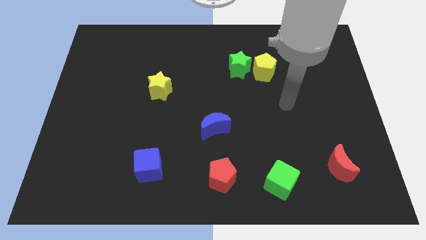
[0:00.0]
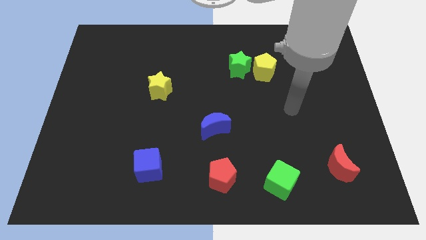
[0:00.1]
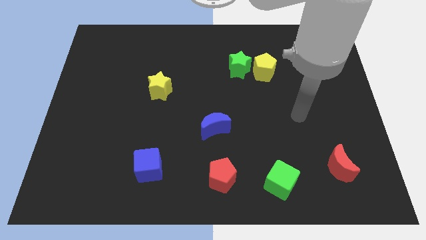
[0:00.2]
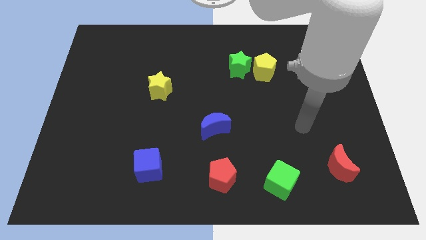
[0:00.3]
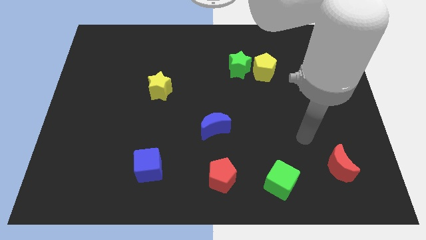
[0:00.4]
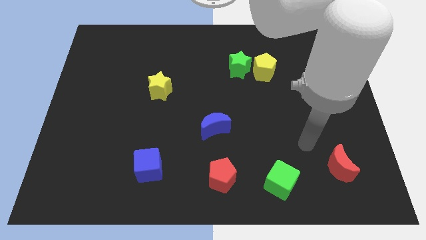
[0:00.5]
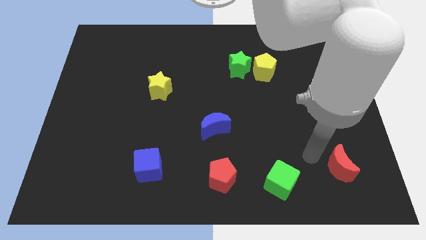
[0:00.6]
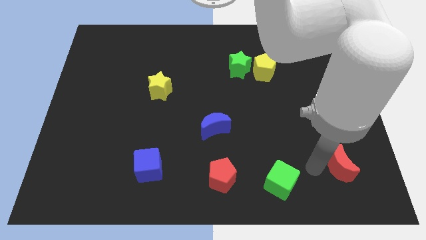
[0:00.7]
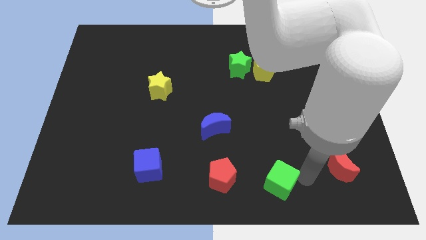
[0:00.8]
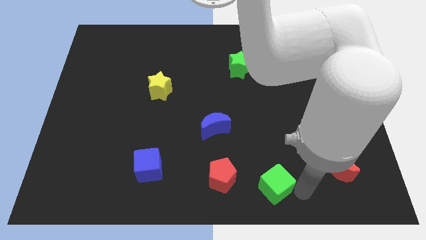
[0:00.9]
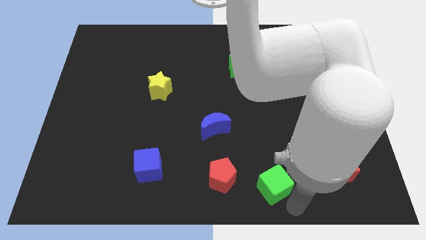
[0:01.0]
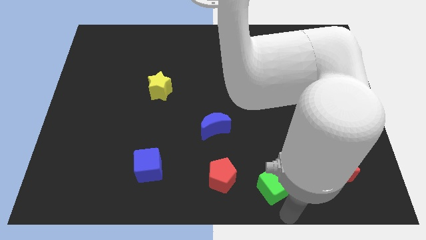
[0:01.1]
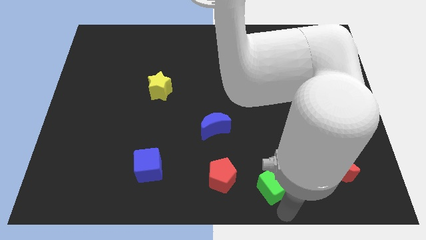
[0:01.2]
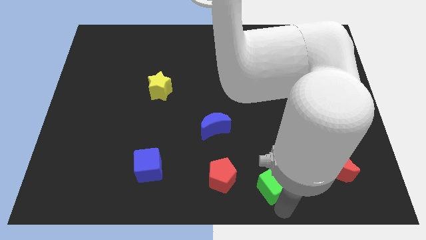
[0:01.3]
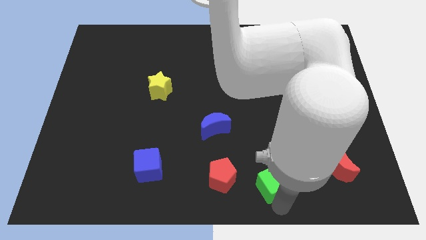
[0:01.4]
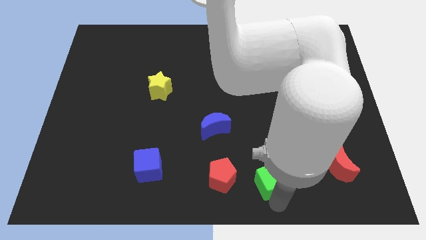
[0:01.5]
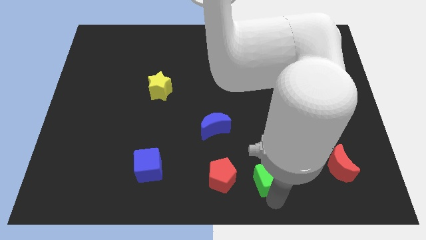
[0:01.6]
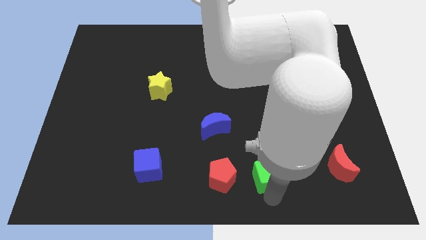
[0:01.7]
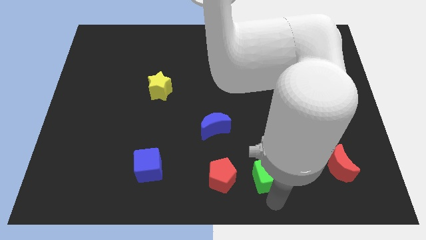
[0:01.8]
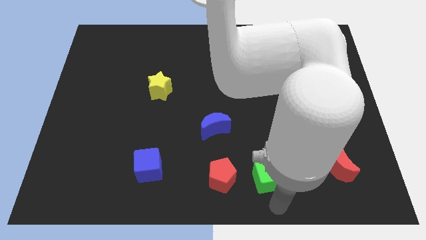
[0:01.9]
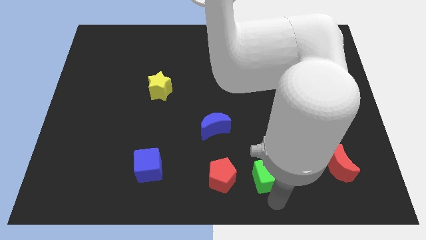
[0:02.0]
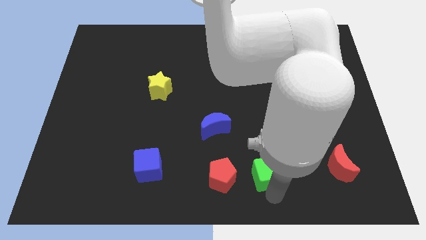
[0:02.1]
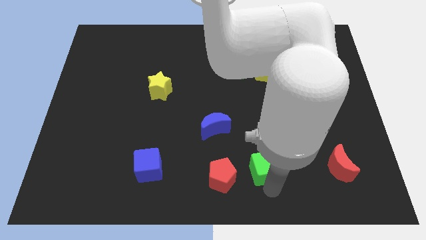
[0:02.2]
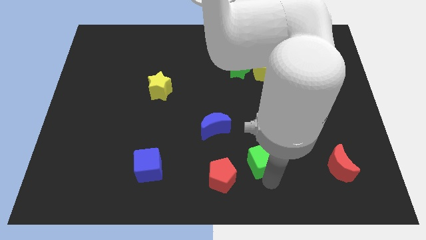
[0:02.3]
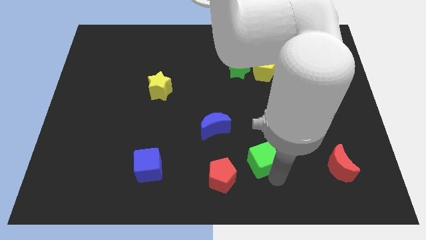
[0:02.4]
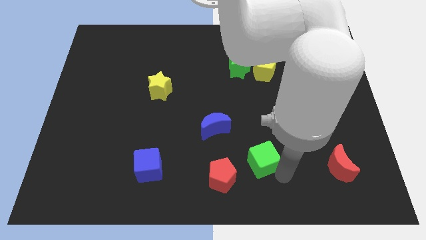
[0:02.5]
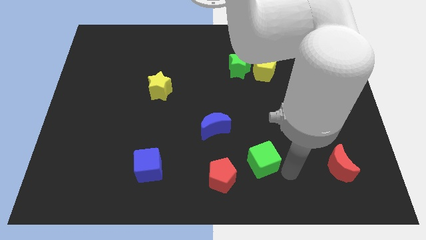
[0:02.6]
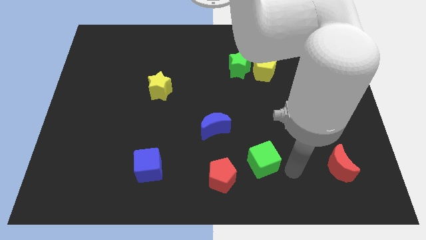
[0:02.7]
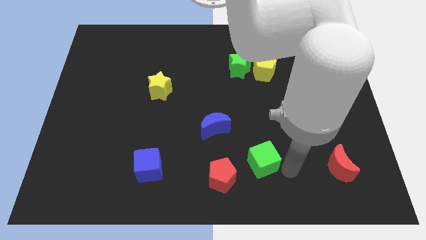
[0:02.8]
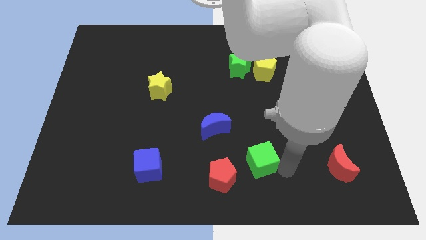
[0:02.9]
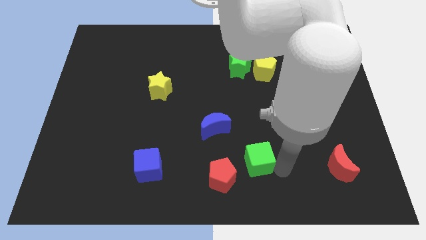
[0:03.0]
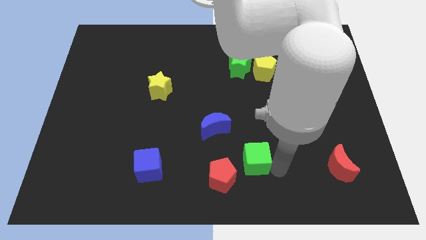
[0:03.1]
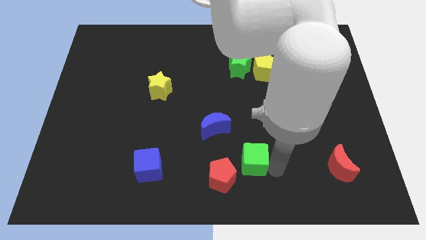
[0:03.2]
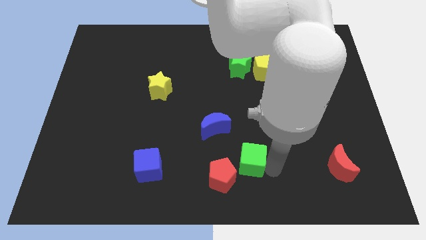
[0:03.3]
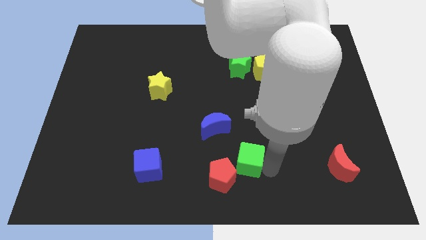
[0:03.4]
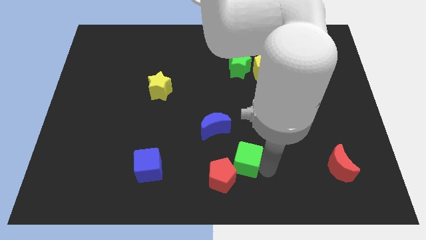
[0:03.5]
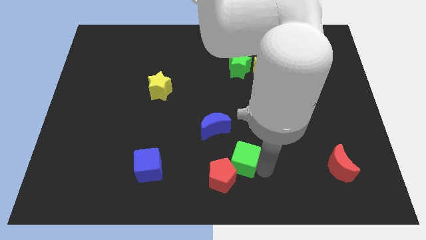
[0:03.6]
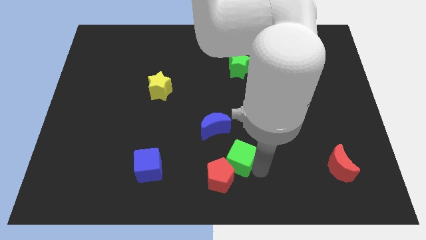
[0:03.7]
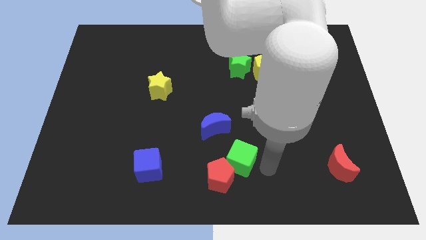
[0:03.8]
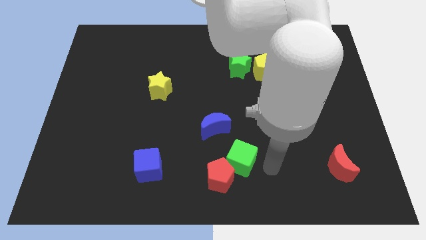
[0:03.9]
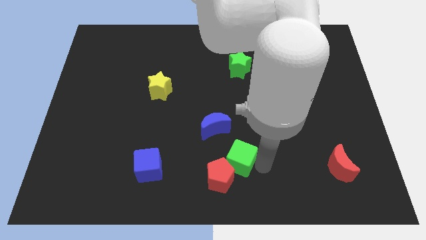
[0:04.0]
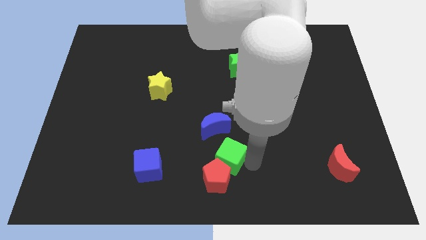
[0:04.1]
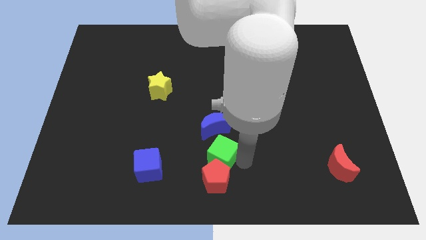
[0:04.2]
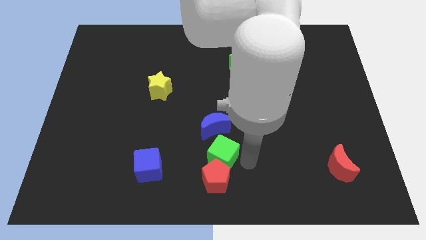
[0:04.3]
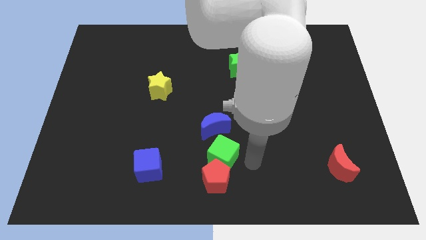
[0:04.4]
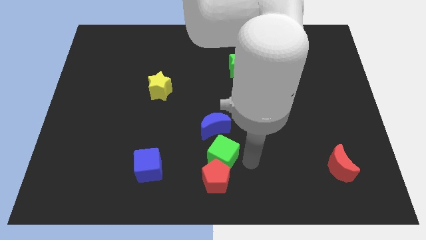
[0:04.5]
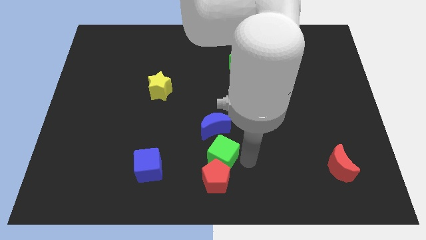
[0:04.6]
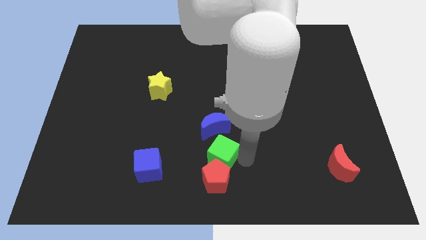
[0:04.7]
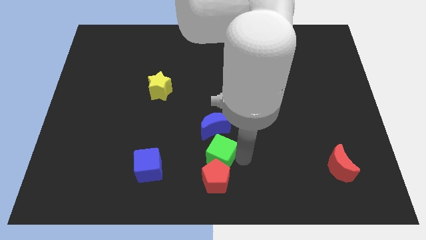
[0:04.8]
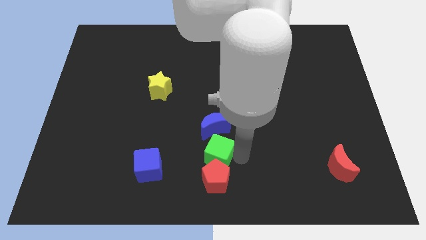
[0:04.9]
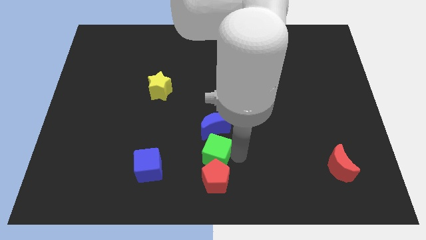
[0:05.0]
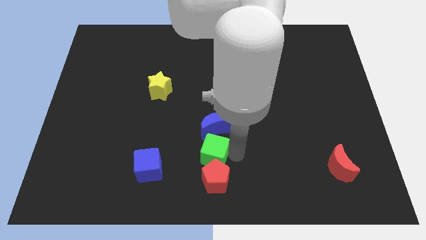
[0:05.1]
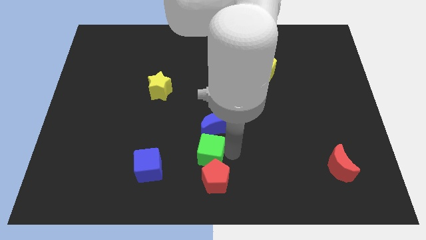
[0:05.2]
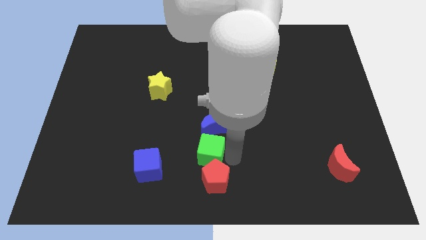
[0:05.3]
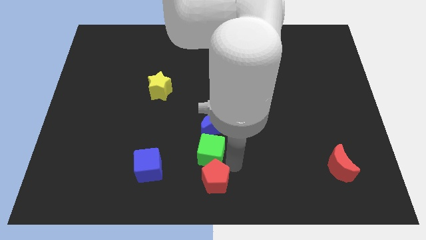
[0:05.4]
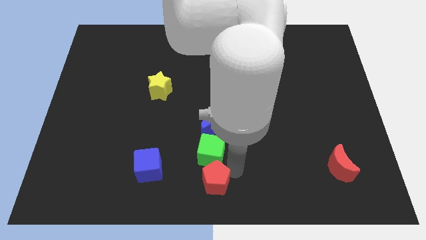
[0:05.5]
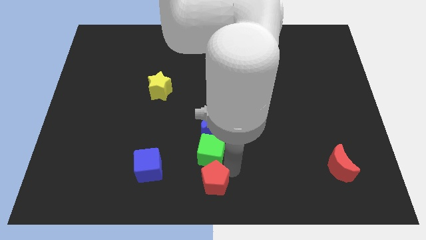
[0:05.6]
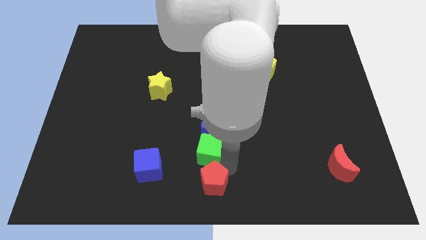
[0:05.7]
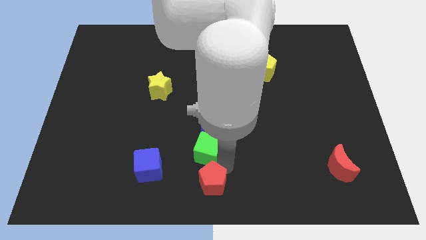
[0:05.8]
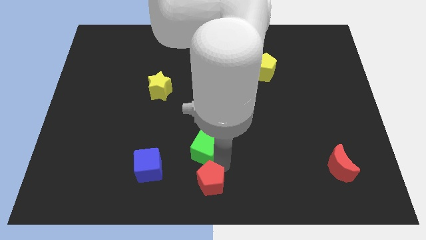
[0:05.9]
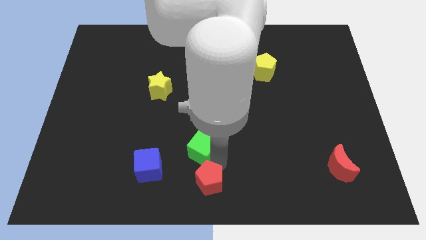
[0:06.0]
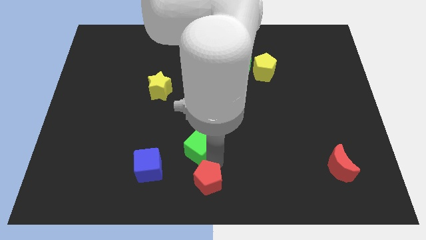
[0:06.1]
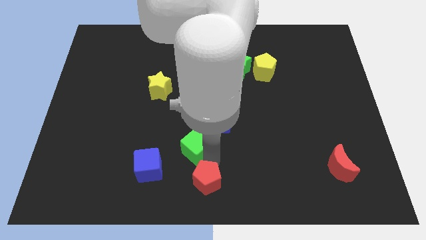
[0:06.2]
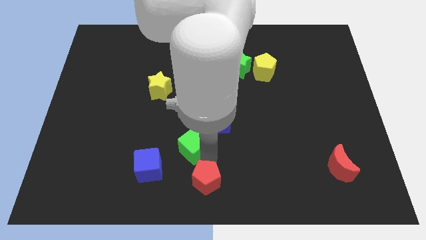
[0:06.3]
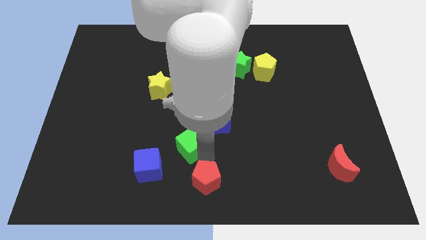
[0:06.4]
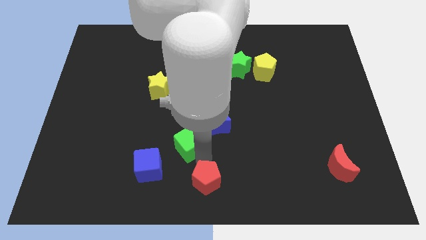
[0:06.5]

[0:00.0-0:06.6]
slide the green cube to the left of the blue moon
